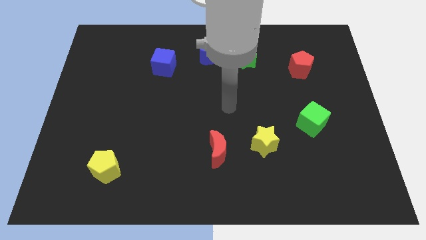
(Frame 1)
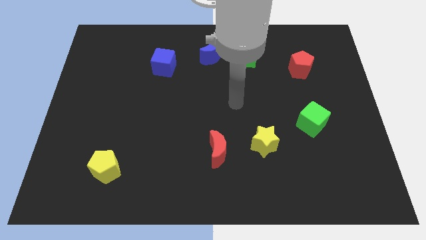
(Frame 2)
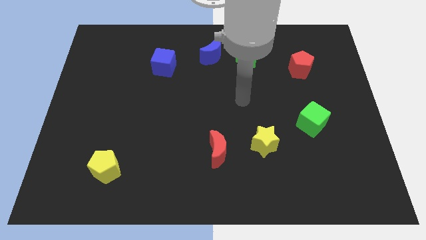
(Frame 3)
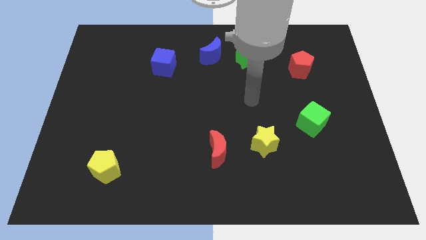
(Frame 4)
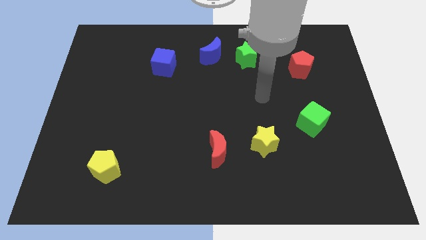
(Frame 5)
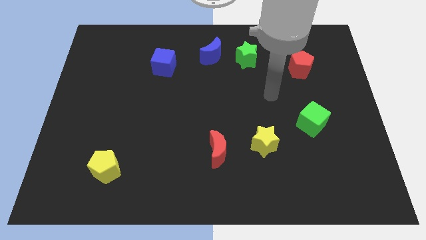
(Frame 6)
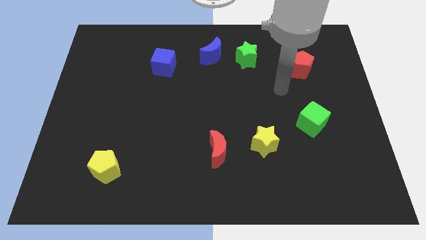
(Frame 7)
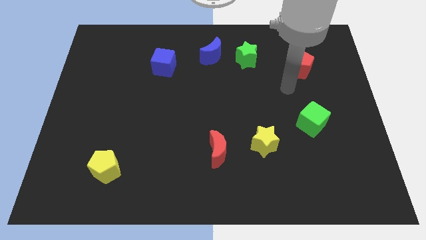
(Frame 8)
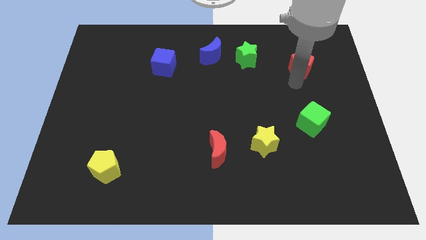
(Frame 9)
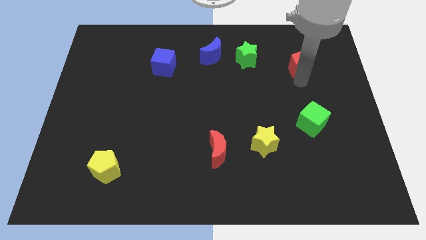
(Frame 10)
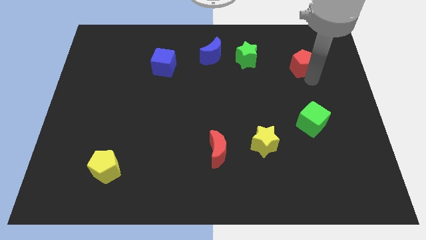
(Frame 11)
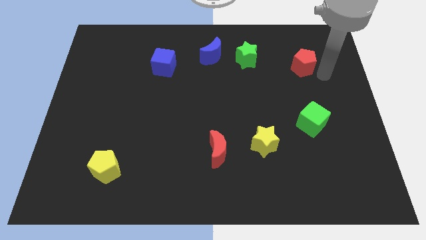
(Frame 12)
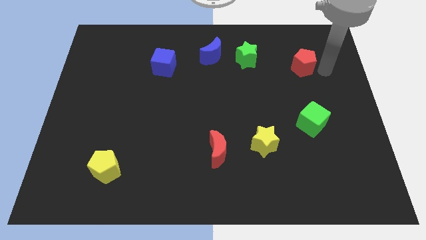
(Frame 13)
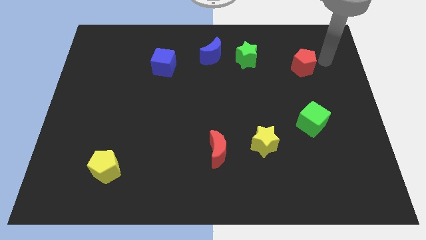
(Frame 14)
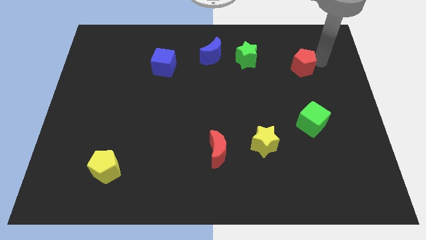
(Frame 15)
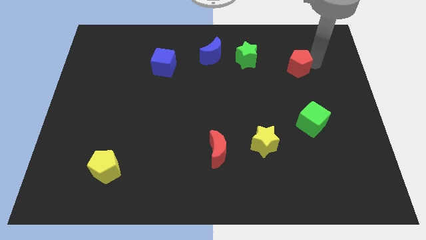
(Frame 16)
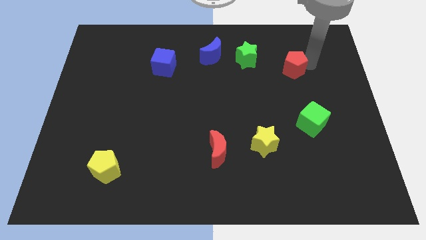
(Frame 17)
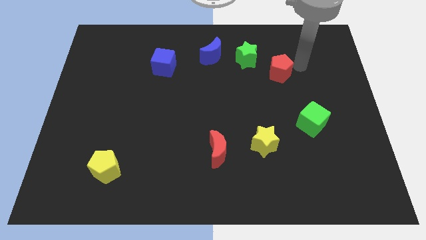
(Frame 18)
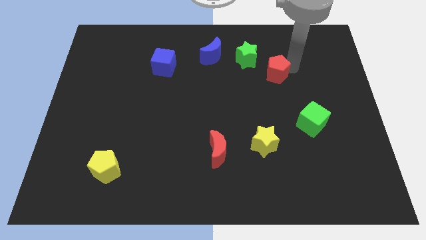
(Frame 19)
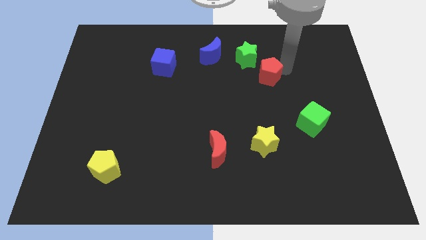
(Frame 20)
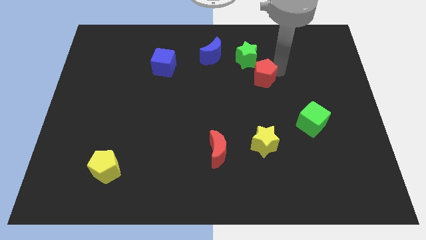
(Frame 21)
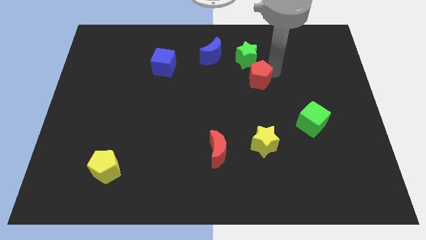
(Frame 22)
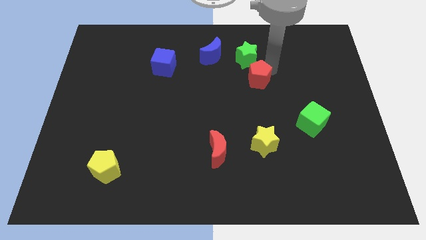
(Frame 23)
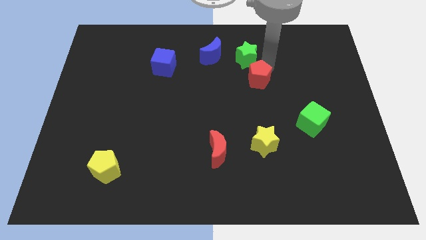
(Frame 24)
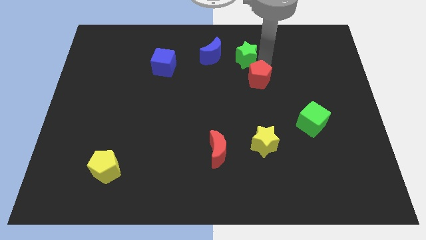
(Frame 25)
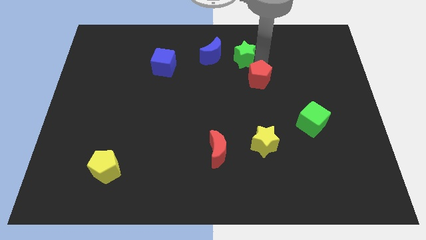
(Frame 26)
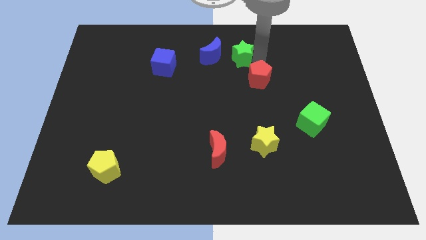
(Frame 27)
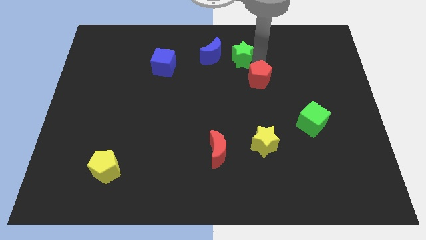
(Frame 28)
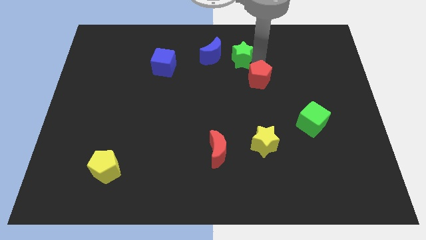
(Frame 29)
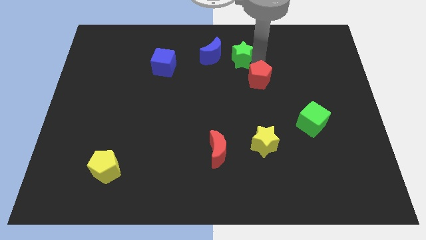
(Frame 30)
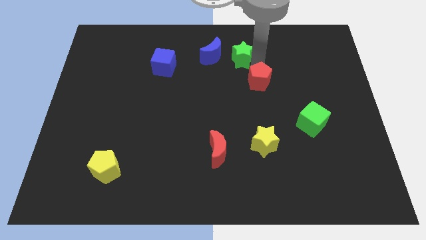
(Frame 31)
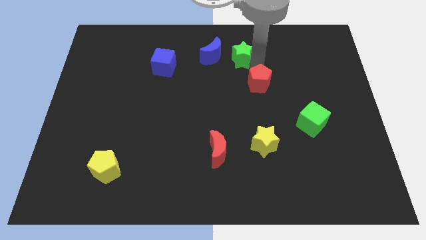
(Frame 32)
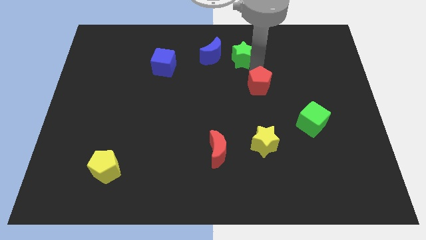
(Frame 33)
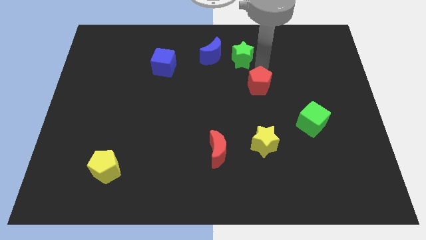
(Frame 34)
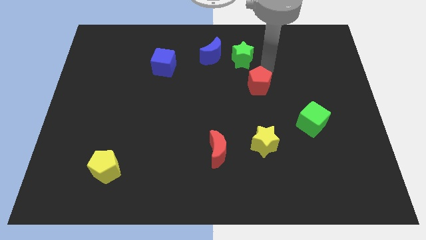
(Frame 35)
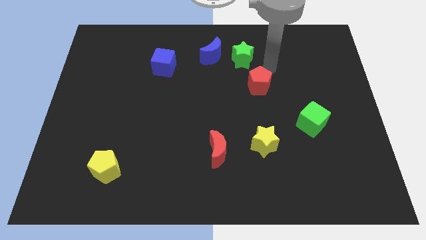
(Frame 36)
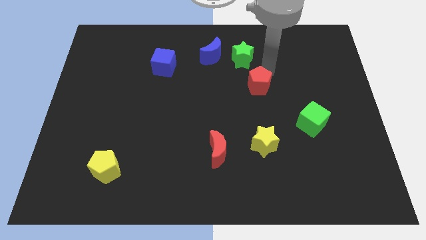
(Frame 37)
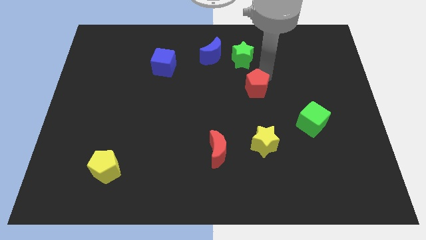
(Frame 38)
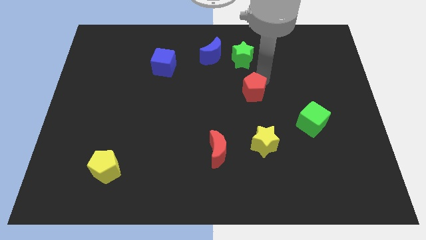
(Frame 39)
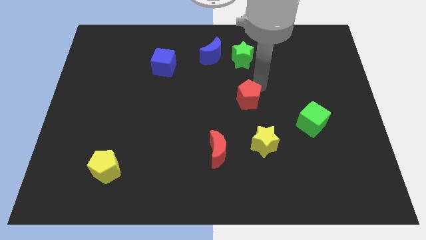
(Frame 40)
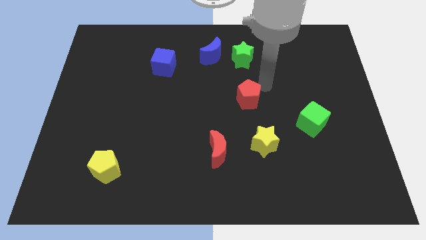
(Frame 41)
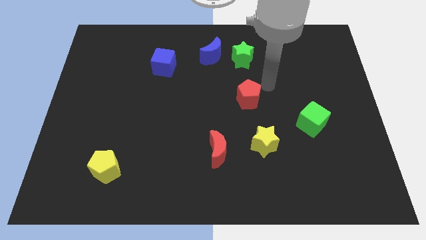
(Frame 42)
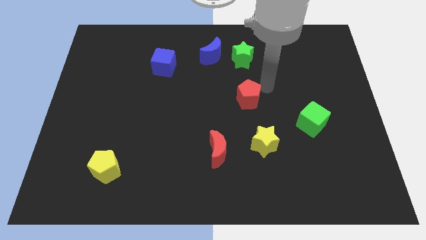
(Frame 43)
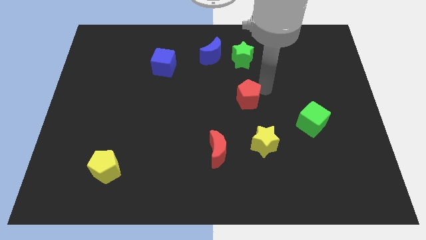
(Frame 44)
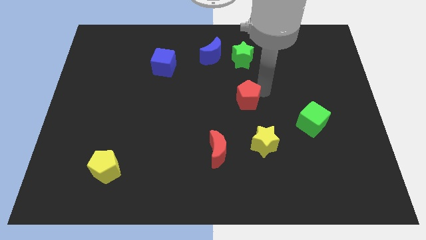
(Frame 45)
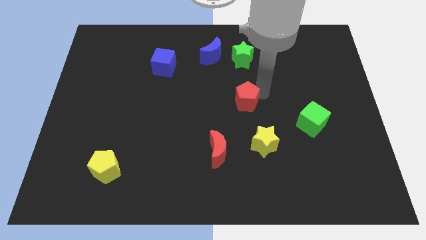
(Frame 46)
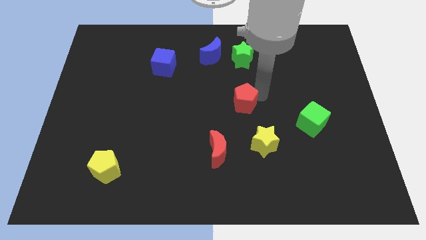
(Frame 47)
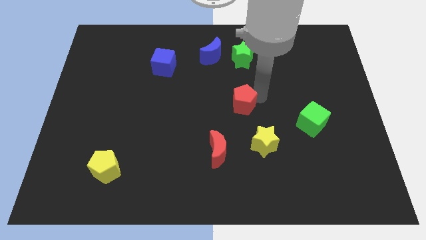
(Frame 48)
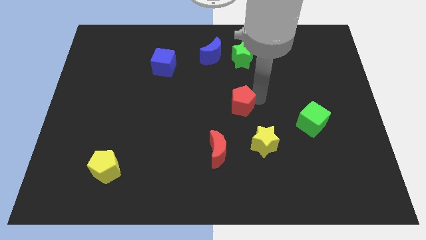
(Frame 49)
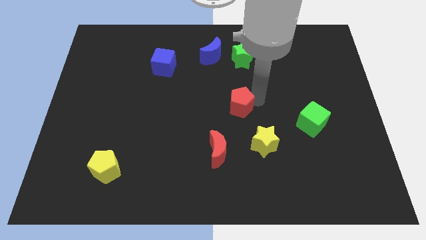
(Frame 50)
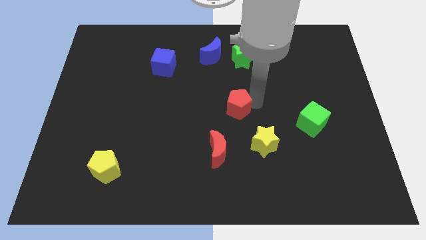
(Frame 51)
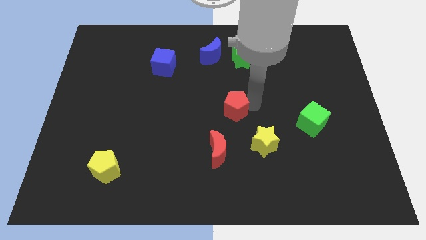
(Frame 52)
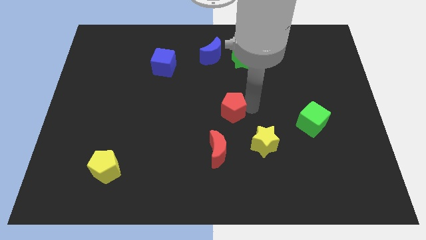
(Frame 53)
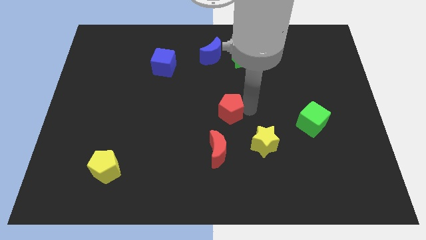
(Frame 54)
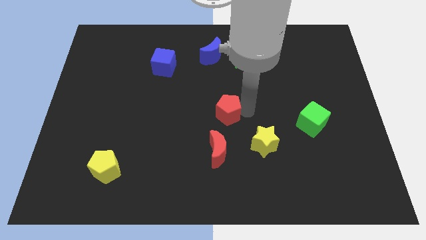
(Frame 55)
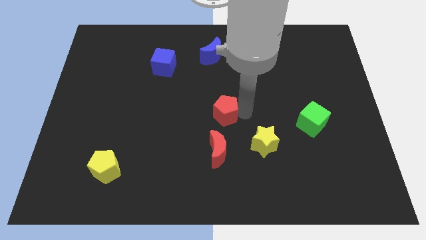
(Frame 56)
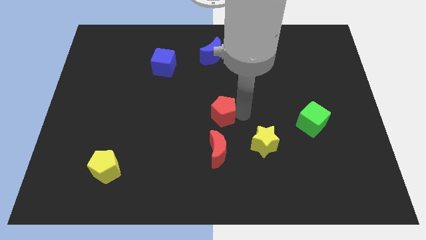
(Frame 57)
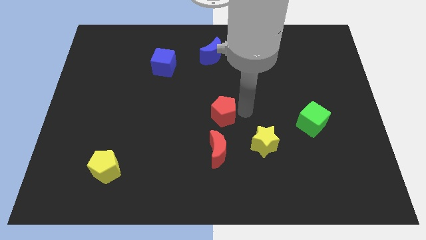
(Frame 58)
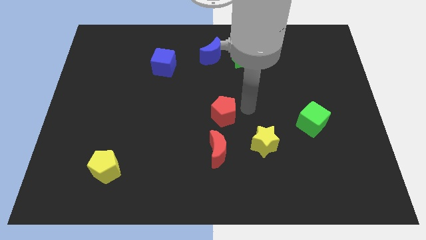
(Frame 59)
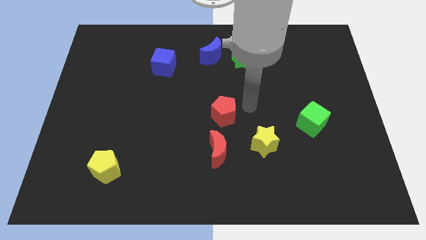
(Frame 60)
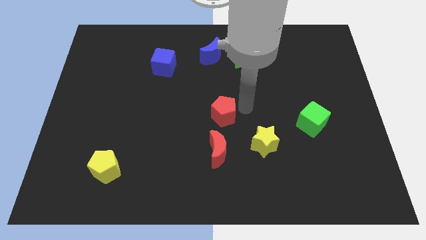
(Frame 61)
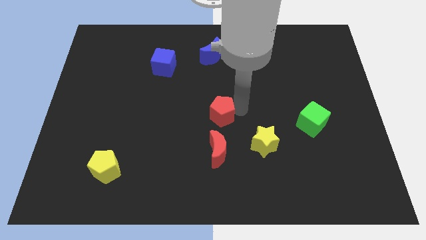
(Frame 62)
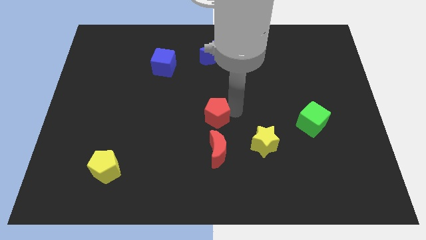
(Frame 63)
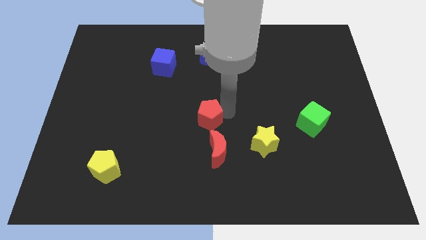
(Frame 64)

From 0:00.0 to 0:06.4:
push the red pentagon diagonally up and to the left of the red moon

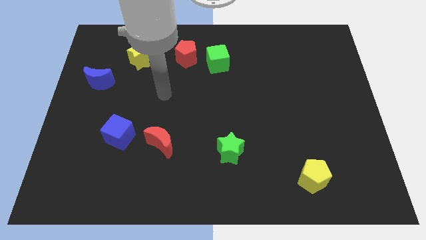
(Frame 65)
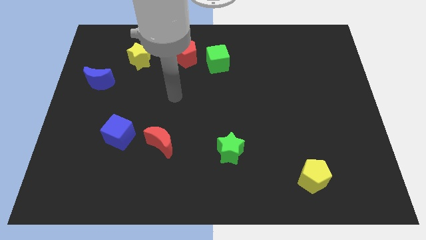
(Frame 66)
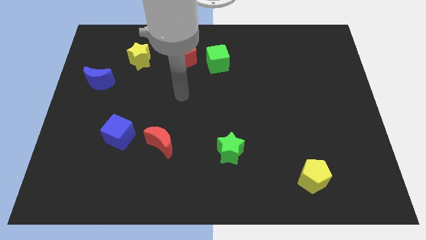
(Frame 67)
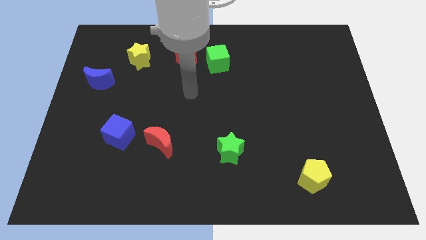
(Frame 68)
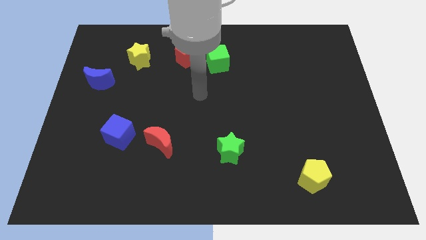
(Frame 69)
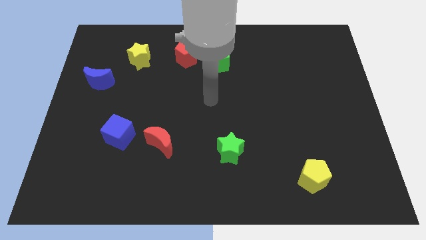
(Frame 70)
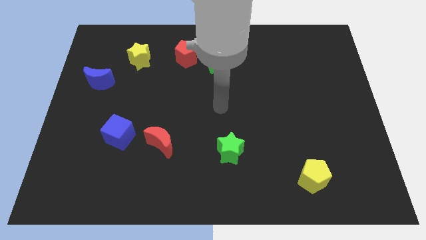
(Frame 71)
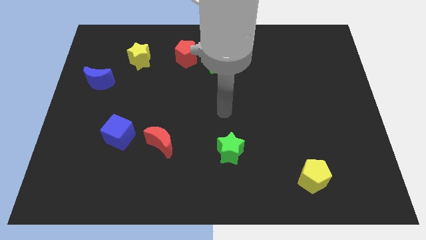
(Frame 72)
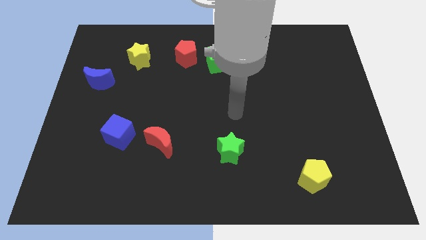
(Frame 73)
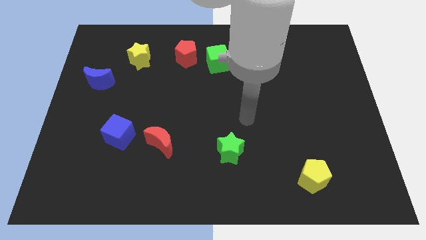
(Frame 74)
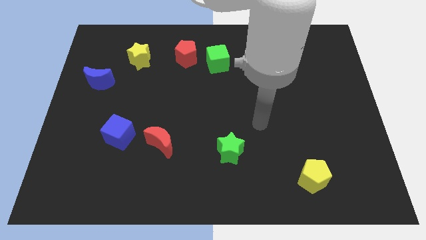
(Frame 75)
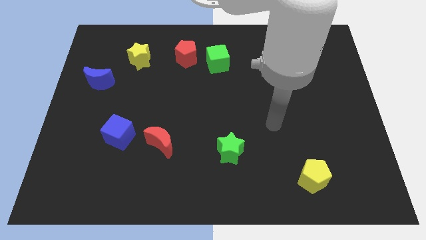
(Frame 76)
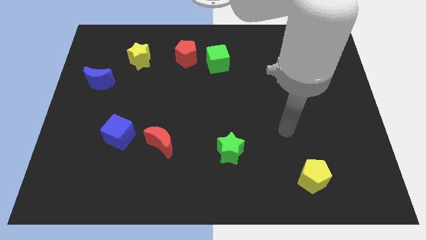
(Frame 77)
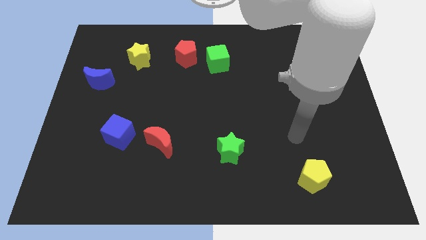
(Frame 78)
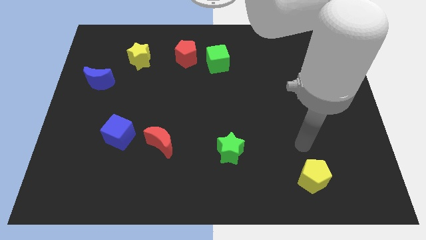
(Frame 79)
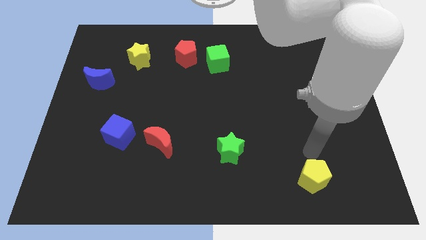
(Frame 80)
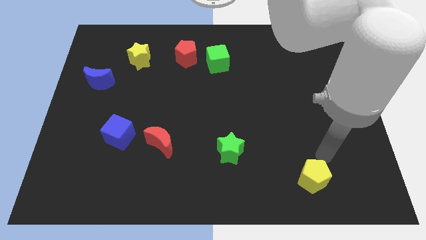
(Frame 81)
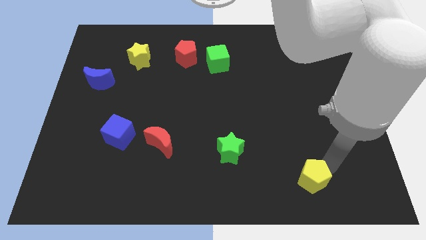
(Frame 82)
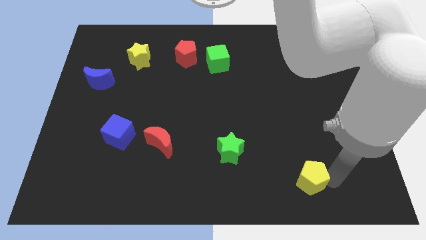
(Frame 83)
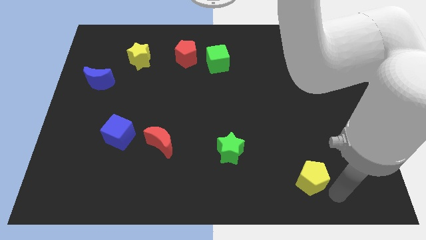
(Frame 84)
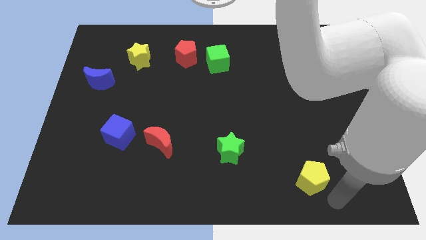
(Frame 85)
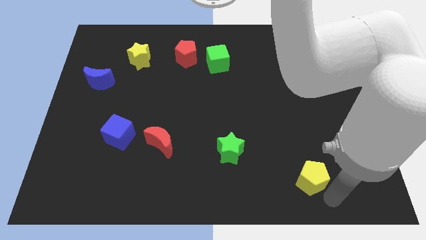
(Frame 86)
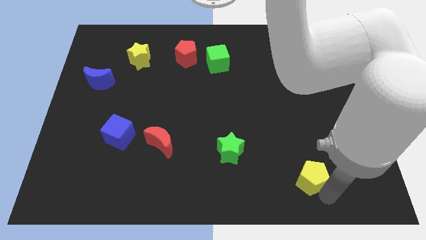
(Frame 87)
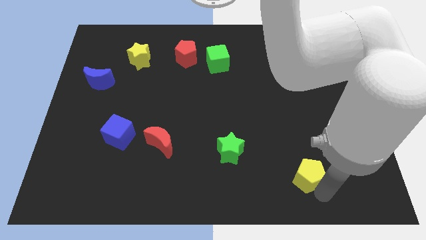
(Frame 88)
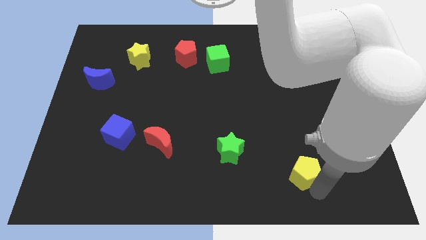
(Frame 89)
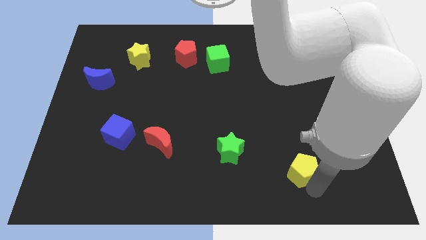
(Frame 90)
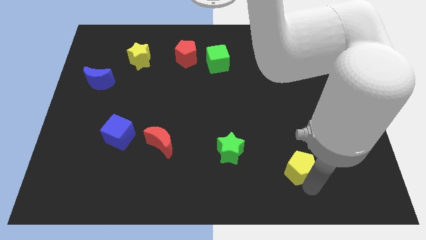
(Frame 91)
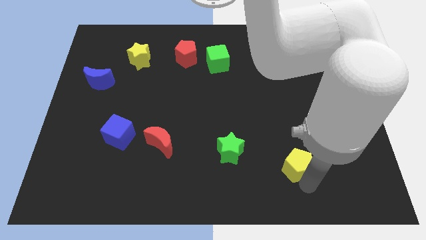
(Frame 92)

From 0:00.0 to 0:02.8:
slide the yellow pentagon to the right side of the green star
